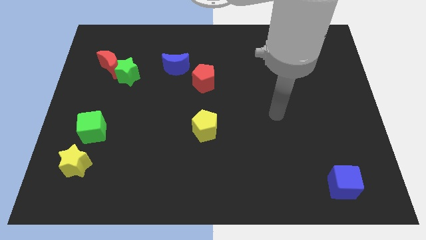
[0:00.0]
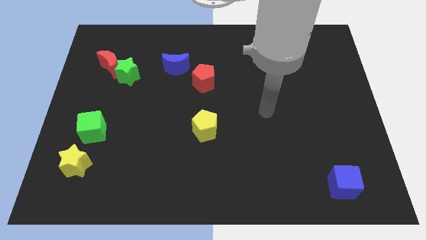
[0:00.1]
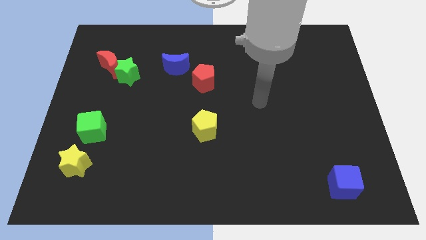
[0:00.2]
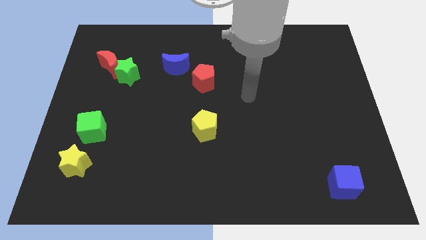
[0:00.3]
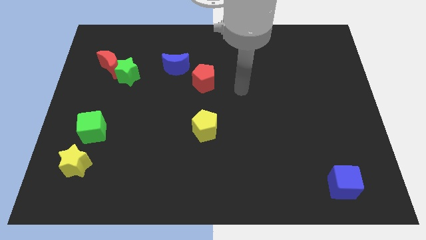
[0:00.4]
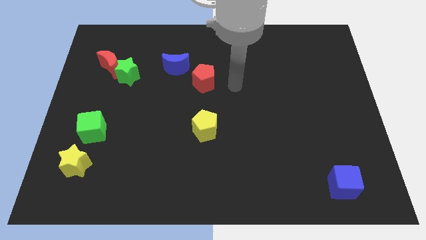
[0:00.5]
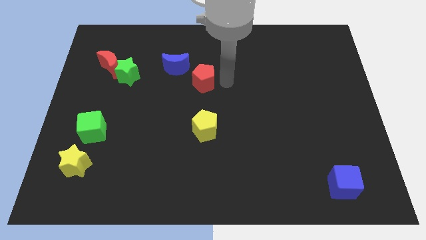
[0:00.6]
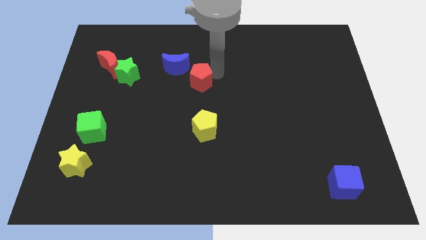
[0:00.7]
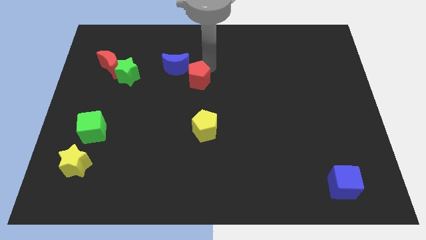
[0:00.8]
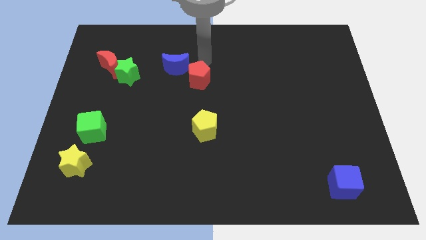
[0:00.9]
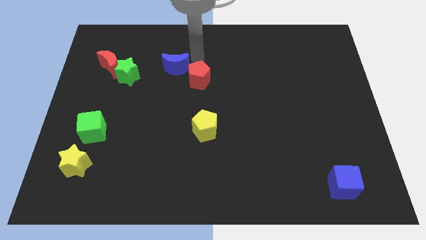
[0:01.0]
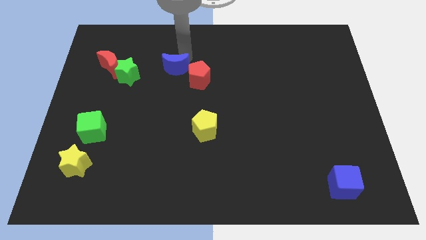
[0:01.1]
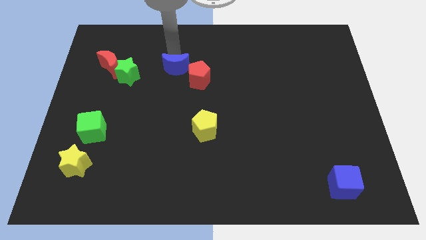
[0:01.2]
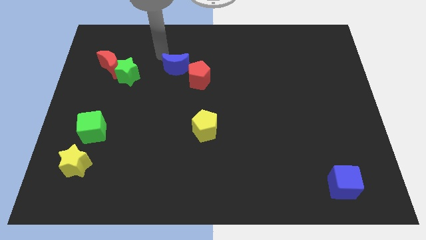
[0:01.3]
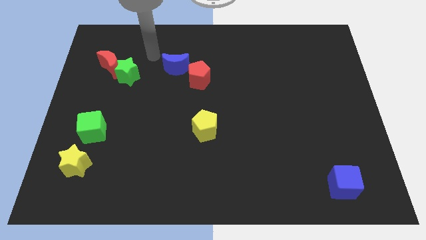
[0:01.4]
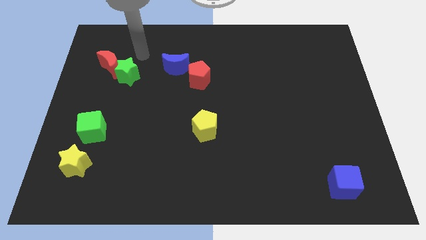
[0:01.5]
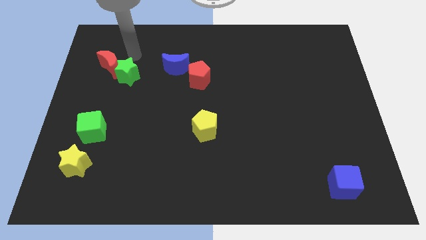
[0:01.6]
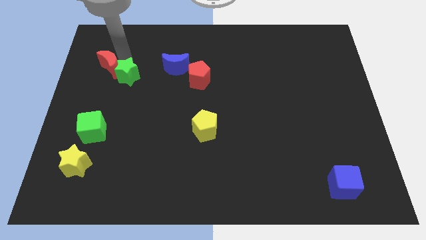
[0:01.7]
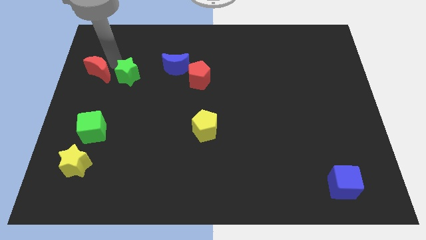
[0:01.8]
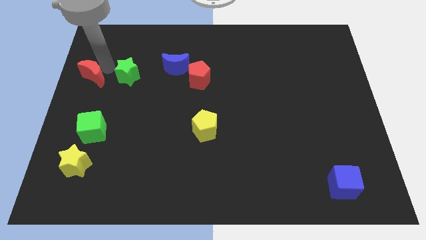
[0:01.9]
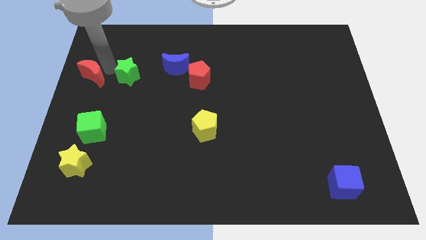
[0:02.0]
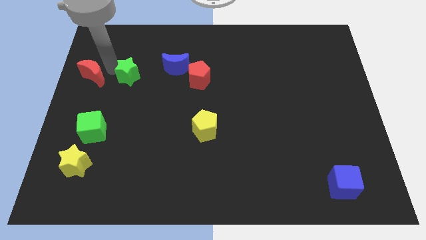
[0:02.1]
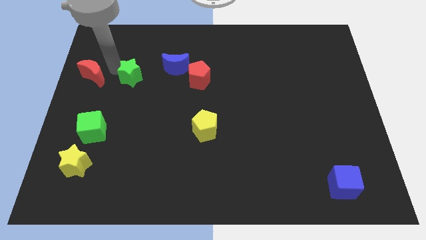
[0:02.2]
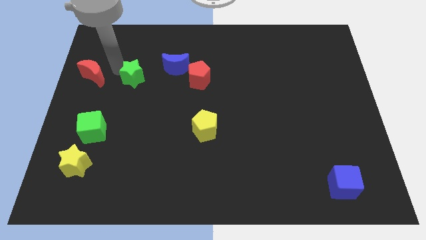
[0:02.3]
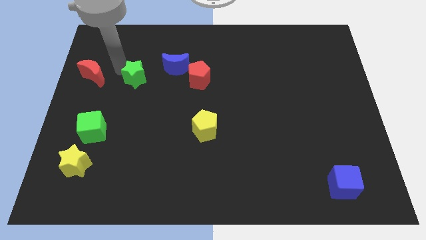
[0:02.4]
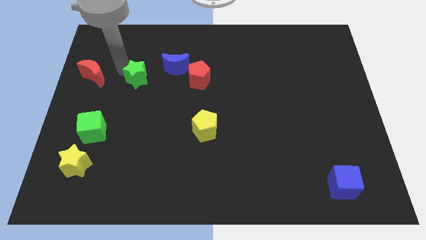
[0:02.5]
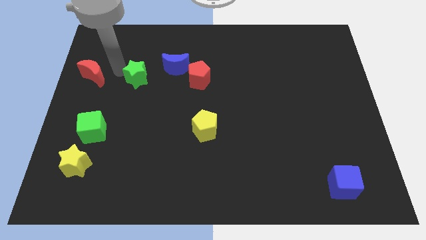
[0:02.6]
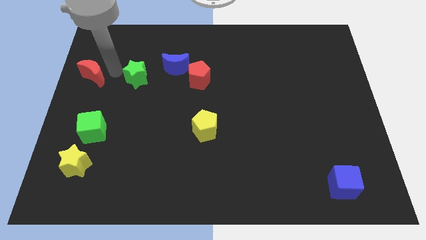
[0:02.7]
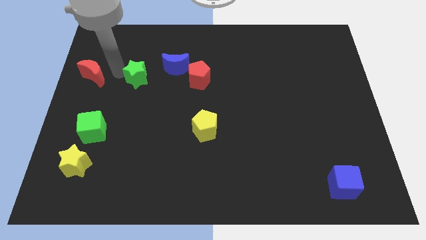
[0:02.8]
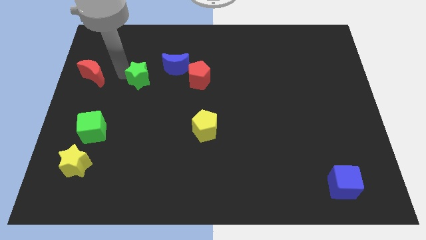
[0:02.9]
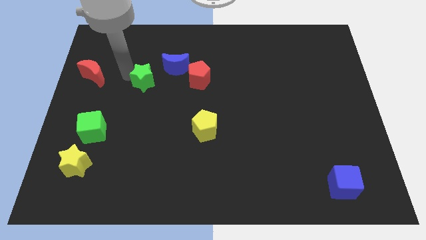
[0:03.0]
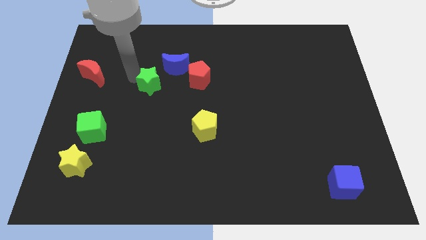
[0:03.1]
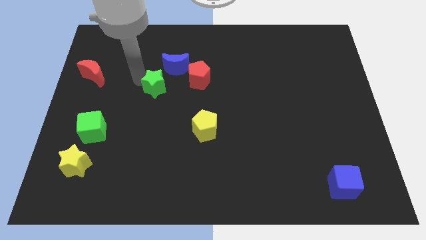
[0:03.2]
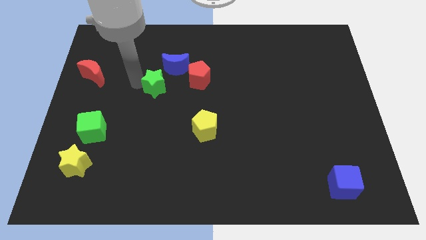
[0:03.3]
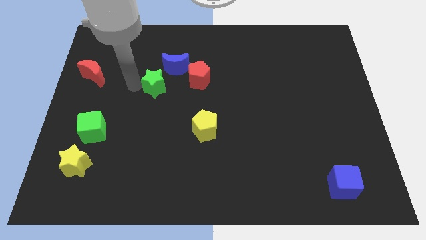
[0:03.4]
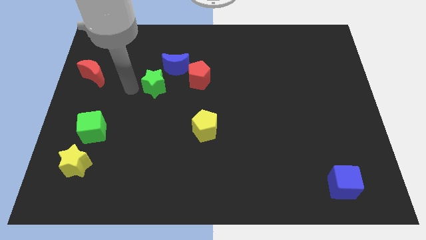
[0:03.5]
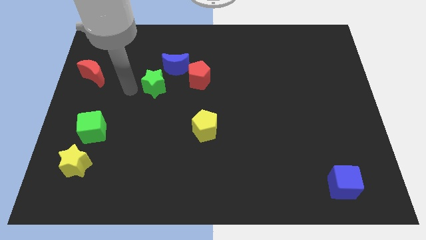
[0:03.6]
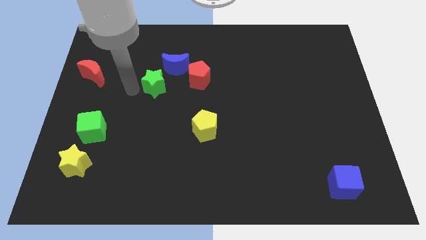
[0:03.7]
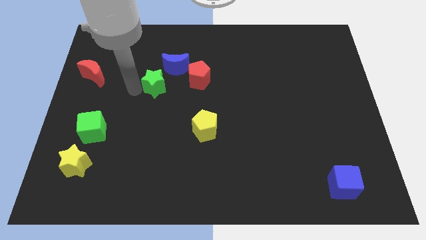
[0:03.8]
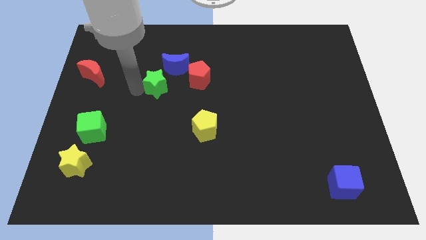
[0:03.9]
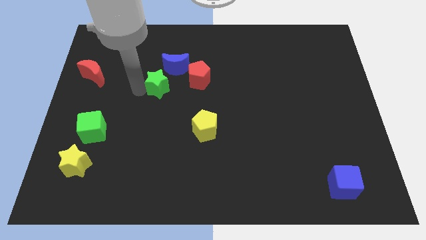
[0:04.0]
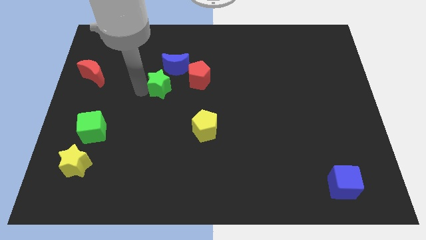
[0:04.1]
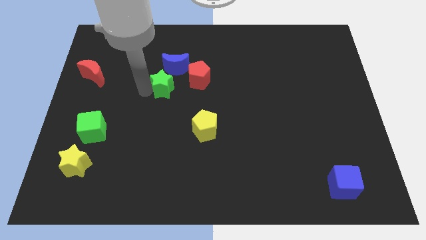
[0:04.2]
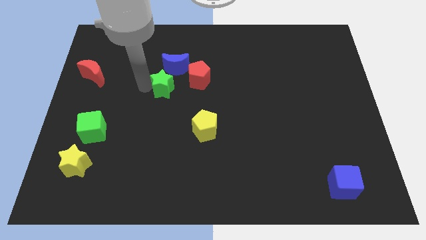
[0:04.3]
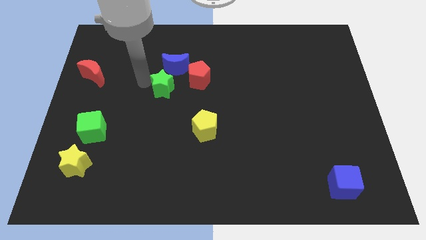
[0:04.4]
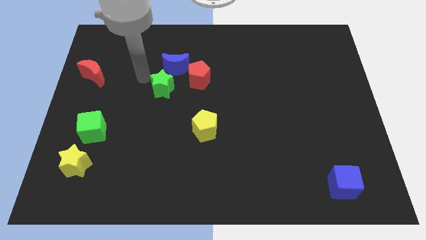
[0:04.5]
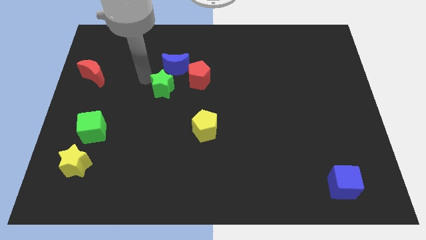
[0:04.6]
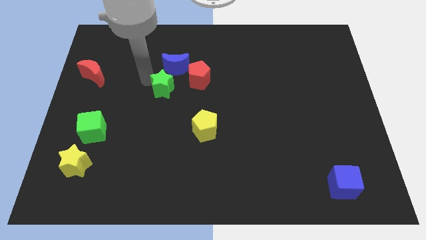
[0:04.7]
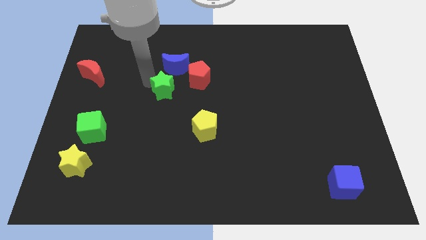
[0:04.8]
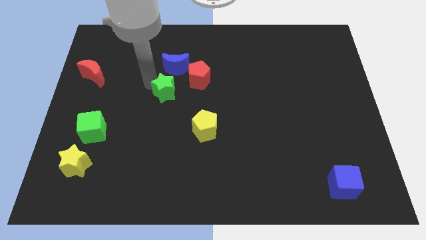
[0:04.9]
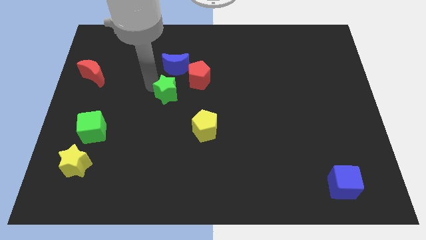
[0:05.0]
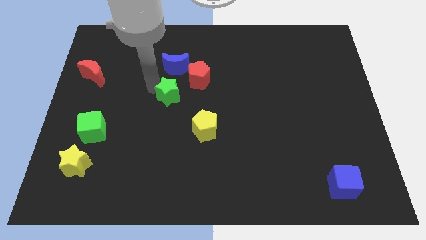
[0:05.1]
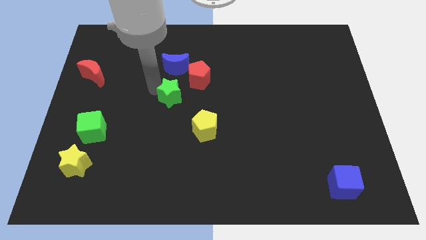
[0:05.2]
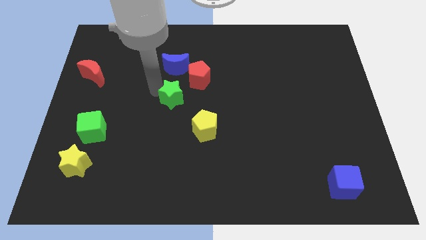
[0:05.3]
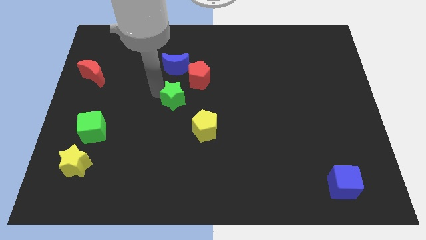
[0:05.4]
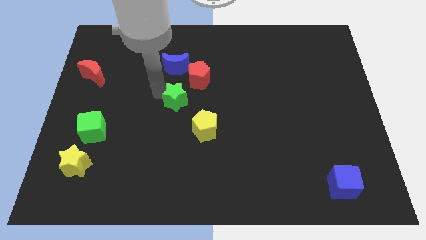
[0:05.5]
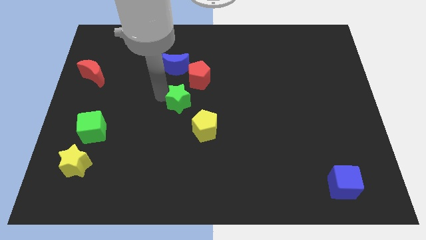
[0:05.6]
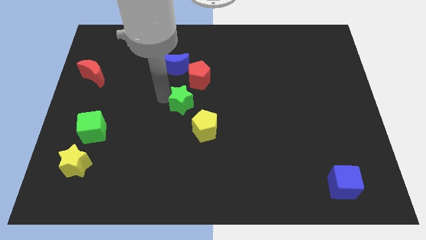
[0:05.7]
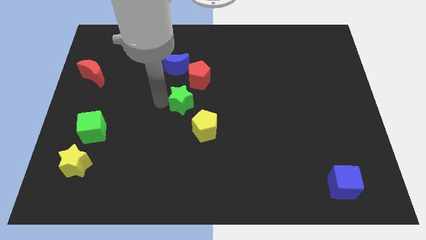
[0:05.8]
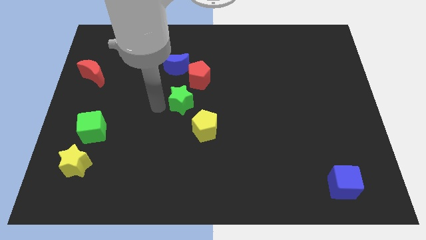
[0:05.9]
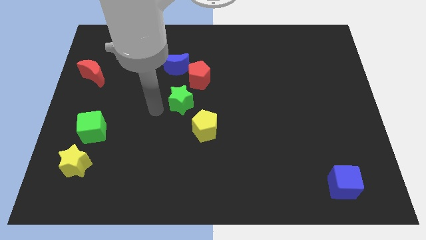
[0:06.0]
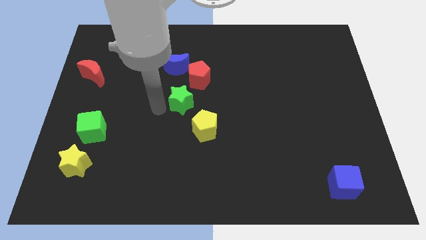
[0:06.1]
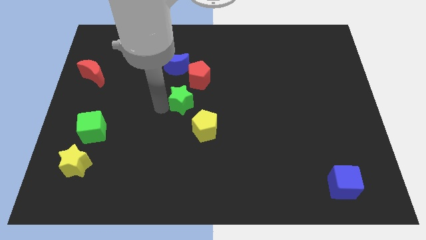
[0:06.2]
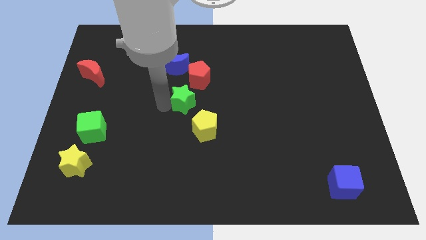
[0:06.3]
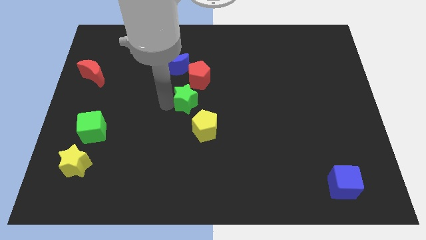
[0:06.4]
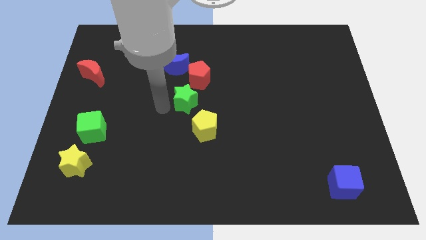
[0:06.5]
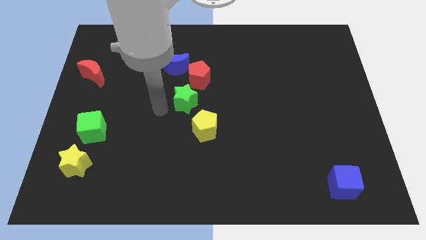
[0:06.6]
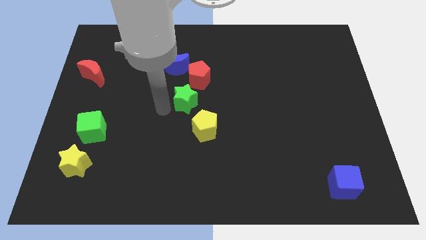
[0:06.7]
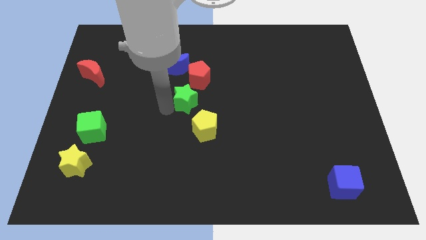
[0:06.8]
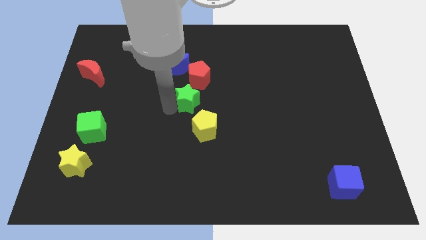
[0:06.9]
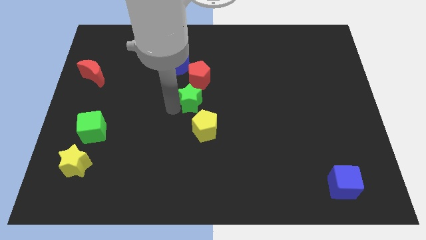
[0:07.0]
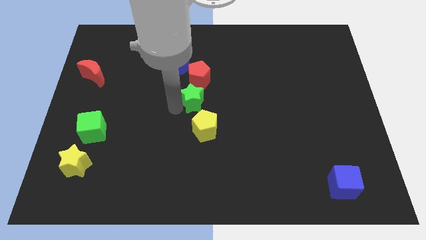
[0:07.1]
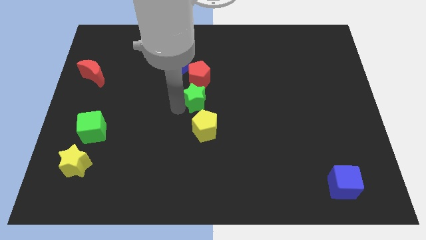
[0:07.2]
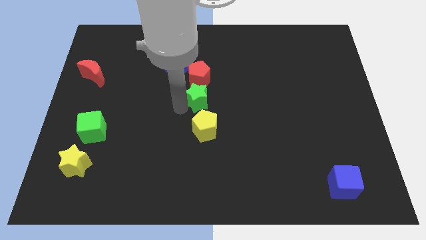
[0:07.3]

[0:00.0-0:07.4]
put the green star to the bottom right of the red pentagon

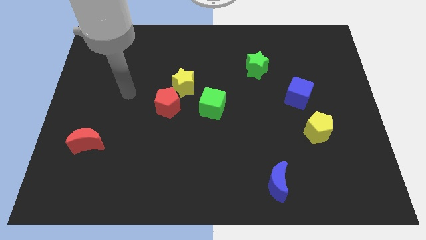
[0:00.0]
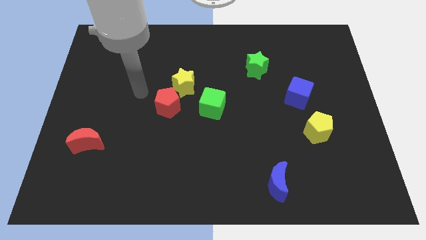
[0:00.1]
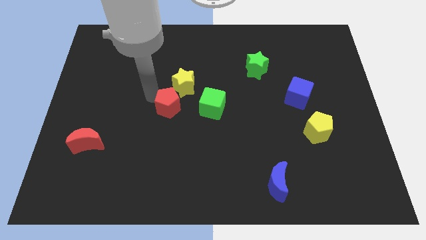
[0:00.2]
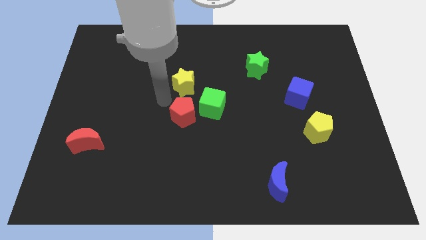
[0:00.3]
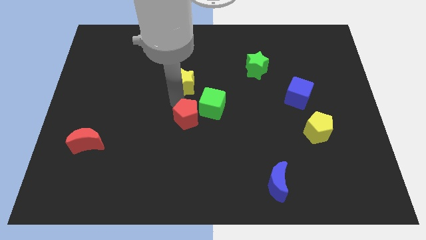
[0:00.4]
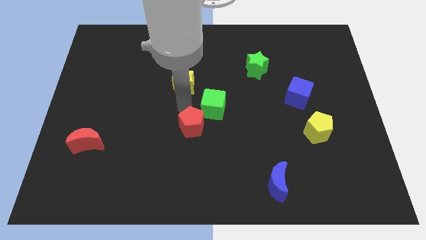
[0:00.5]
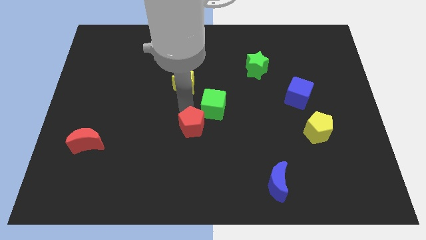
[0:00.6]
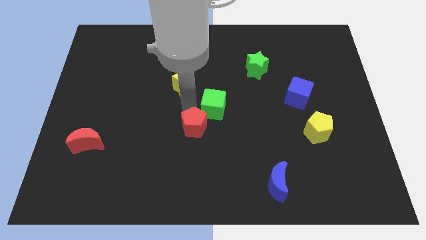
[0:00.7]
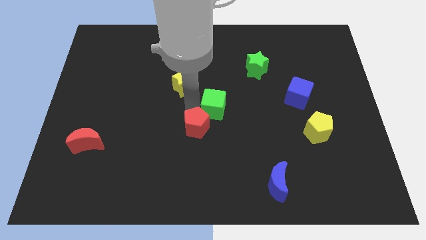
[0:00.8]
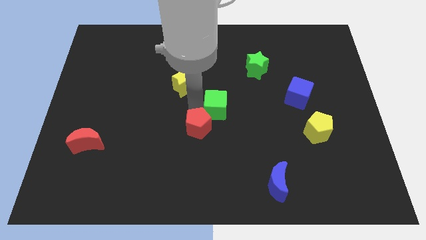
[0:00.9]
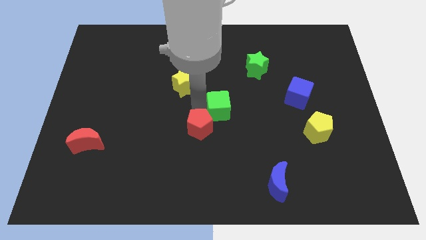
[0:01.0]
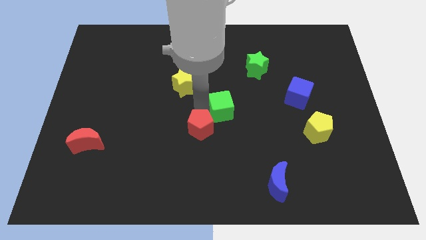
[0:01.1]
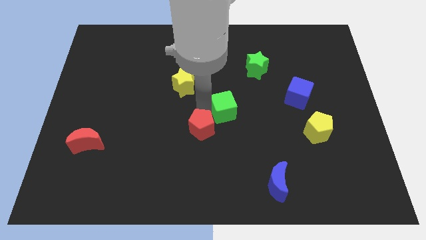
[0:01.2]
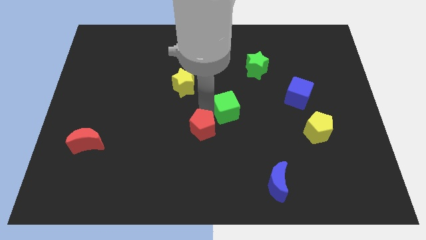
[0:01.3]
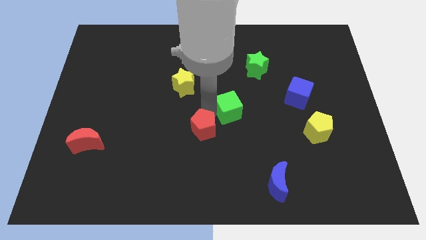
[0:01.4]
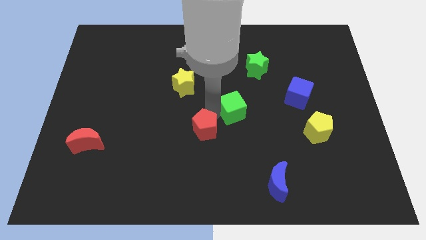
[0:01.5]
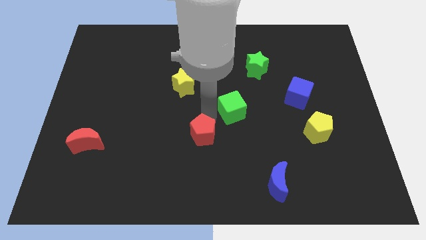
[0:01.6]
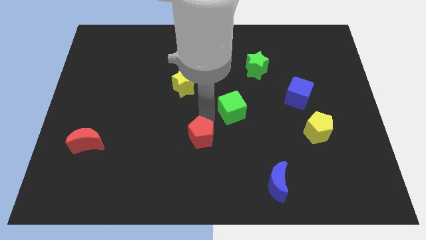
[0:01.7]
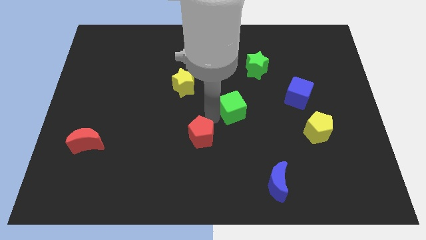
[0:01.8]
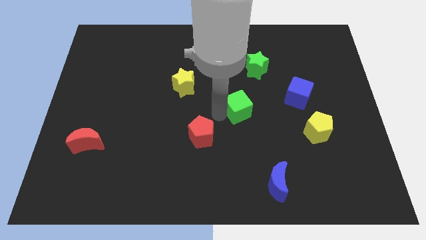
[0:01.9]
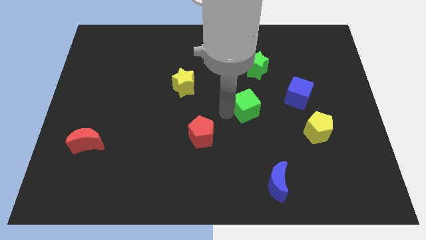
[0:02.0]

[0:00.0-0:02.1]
slide the green cube to the bottom side of the green star
